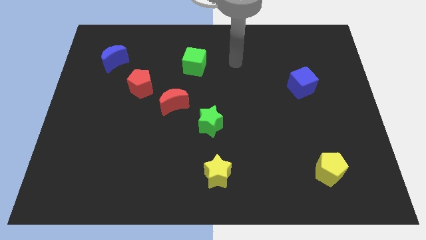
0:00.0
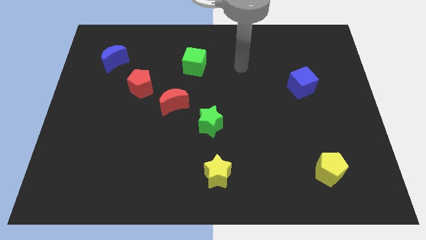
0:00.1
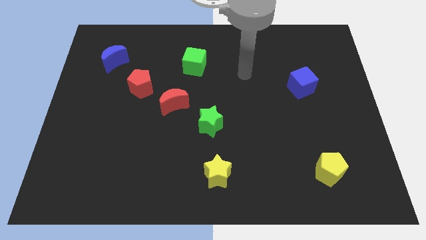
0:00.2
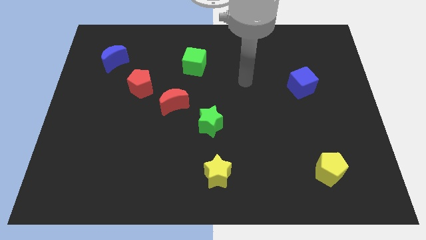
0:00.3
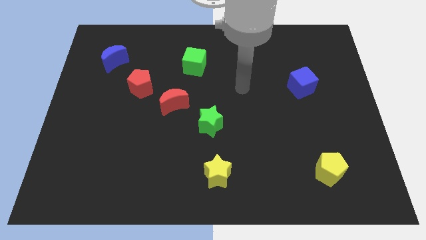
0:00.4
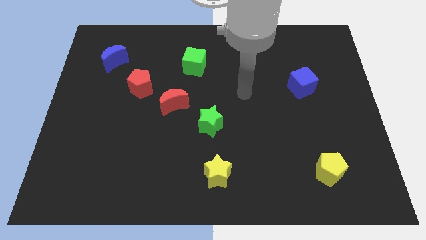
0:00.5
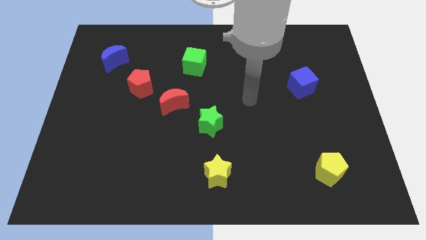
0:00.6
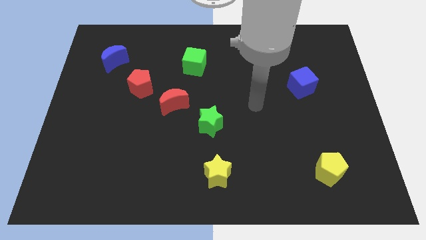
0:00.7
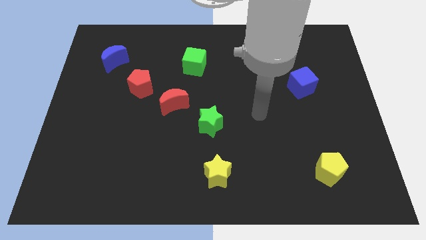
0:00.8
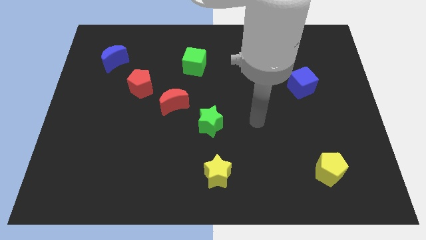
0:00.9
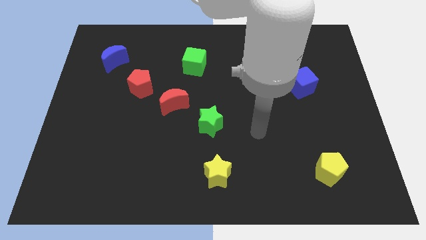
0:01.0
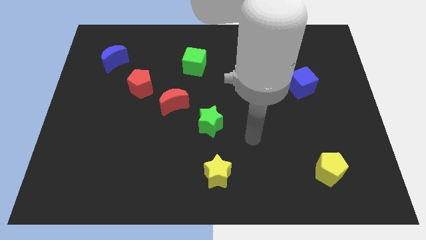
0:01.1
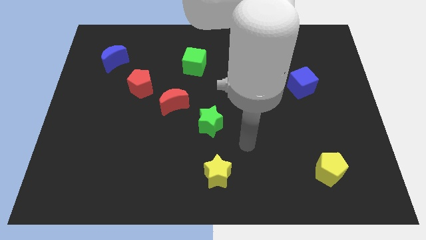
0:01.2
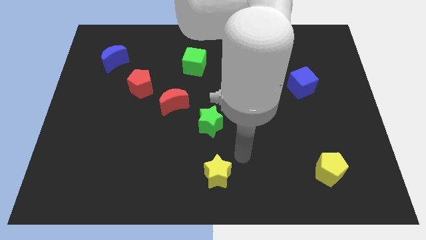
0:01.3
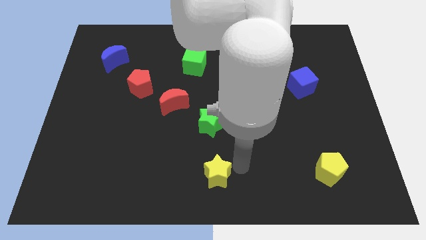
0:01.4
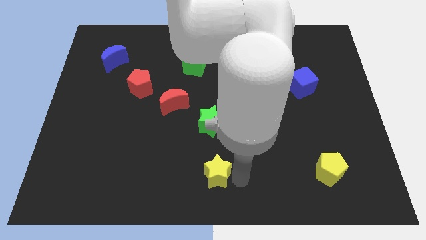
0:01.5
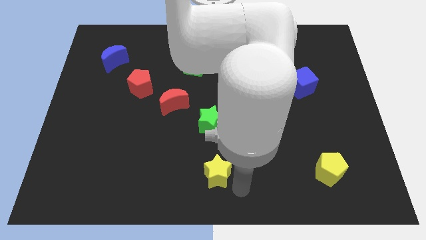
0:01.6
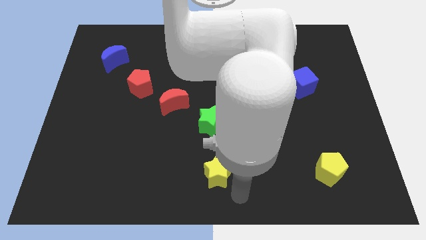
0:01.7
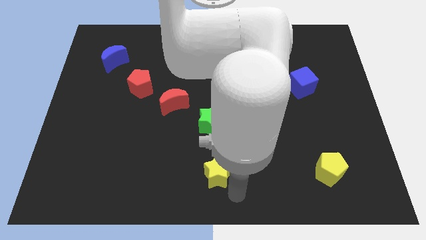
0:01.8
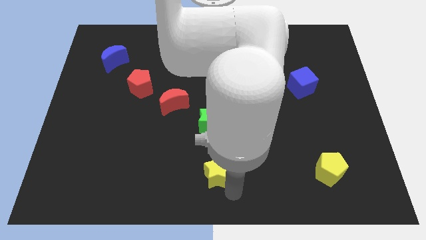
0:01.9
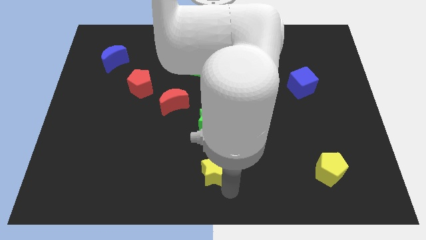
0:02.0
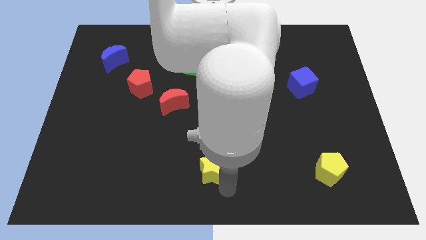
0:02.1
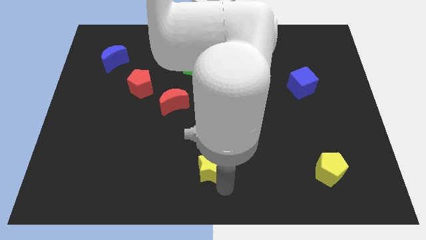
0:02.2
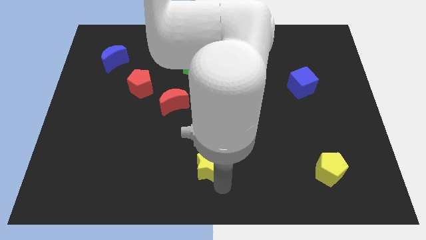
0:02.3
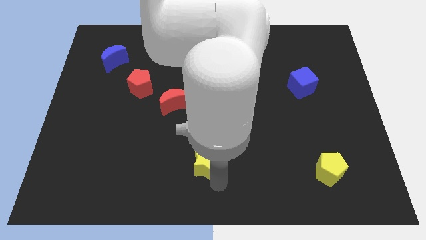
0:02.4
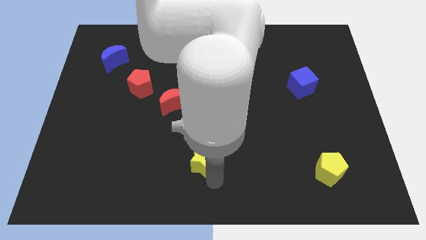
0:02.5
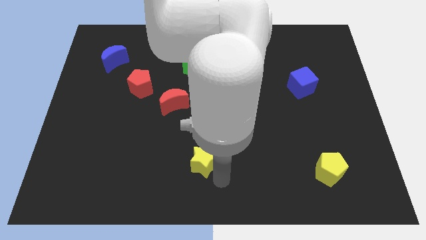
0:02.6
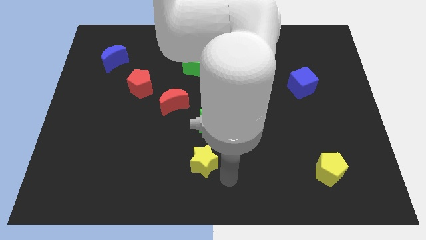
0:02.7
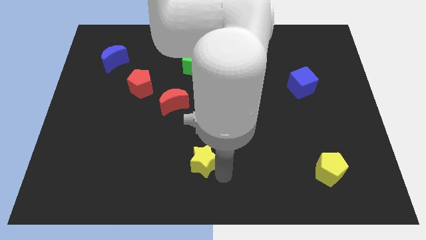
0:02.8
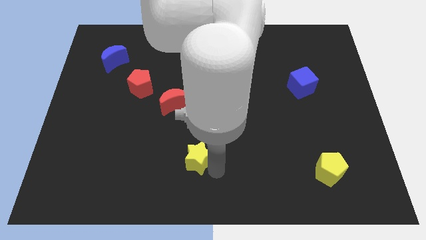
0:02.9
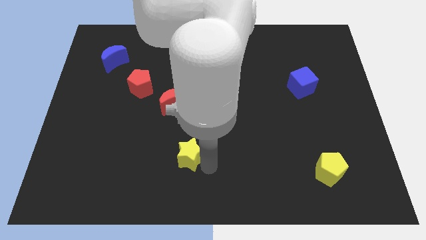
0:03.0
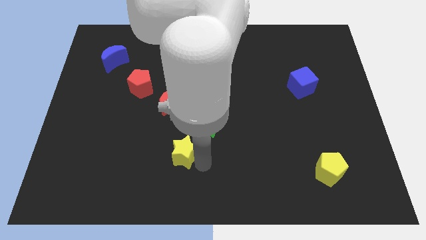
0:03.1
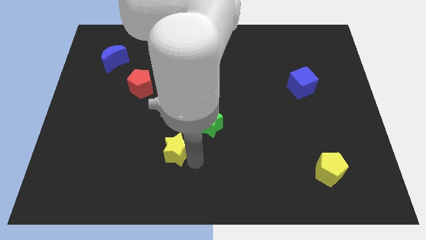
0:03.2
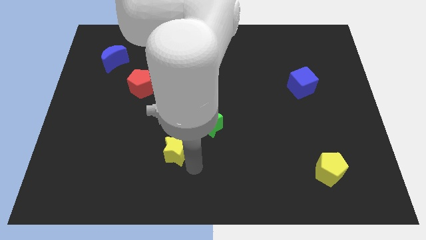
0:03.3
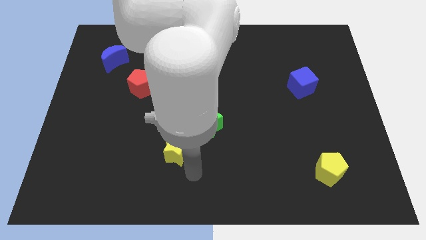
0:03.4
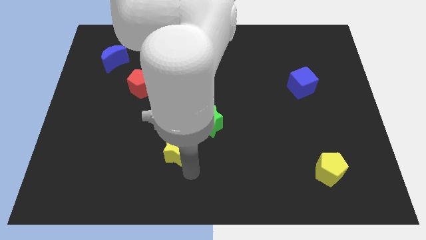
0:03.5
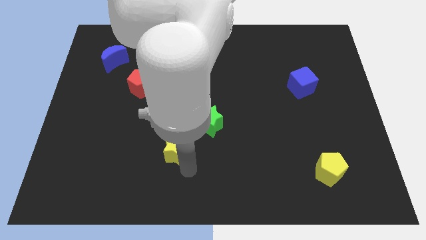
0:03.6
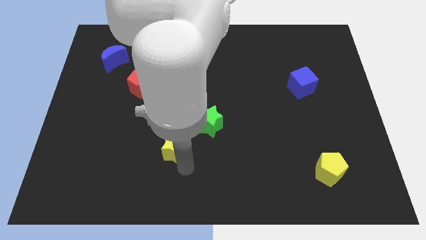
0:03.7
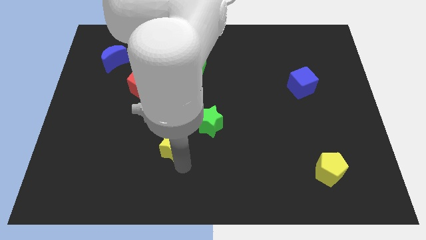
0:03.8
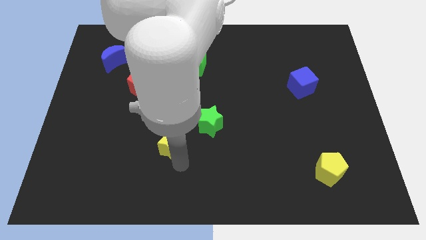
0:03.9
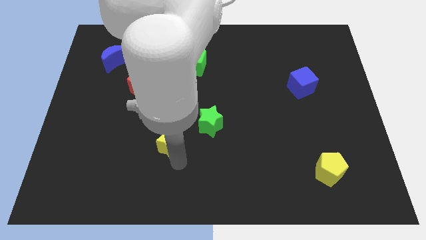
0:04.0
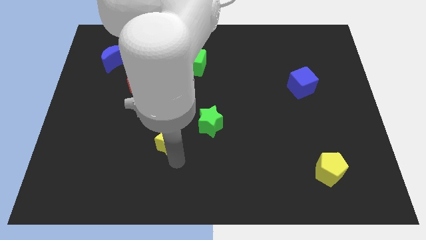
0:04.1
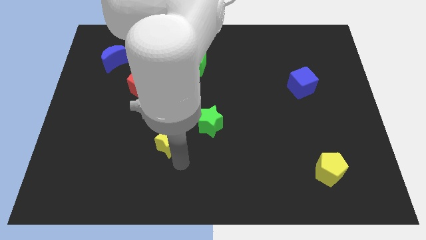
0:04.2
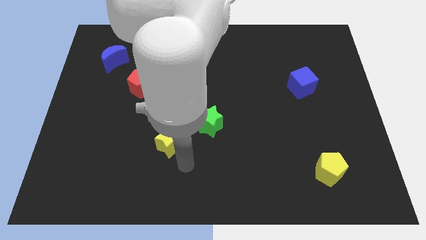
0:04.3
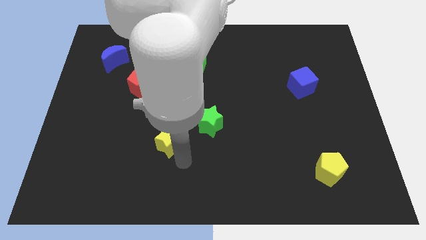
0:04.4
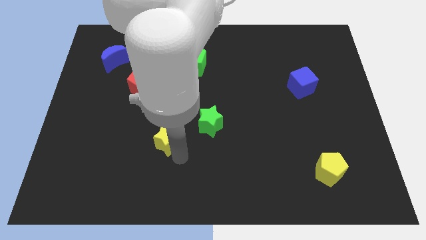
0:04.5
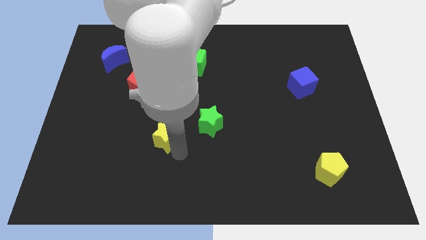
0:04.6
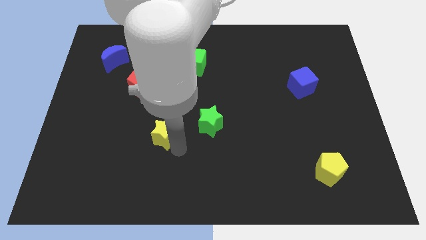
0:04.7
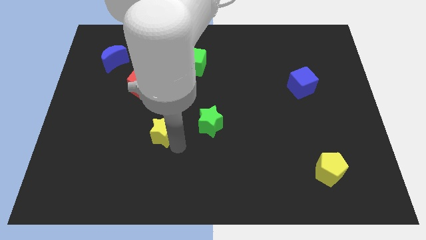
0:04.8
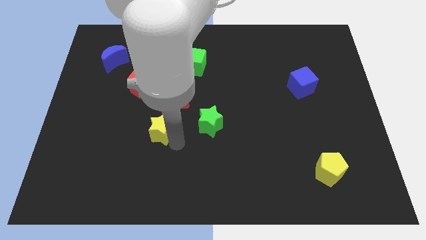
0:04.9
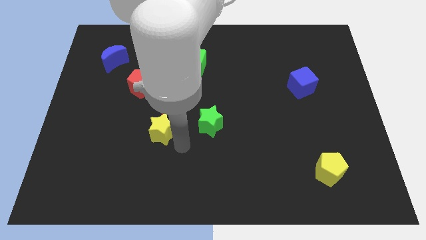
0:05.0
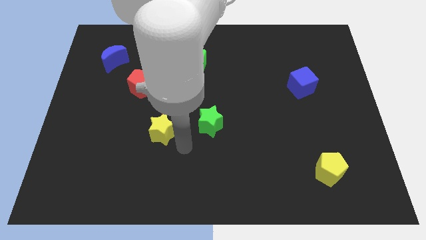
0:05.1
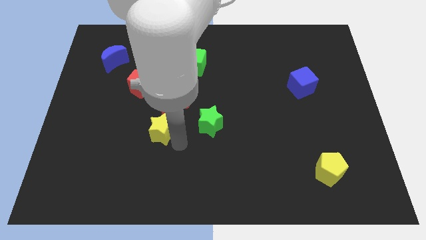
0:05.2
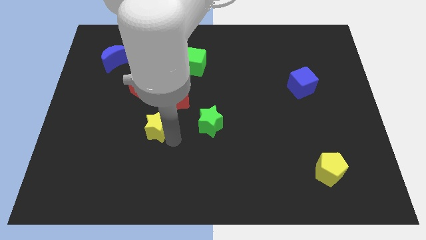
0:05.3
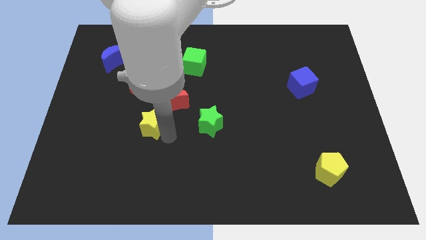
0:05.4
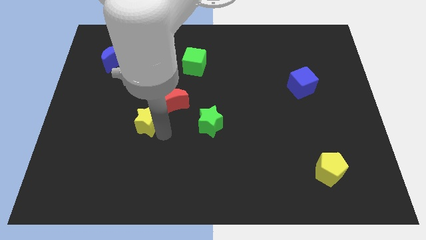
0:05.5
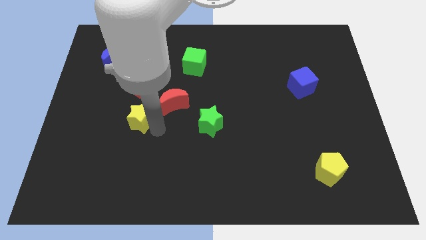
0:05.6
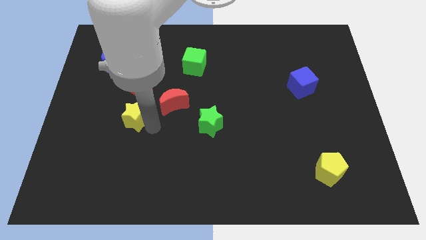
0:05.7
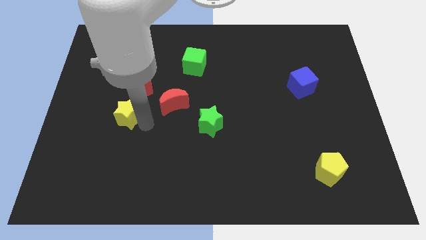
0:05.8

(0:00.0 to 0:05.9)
push the yellow star to the bottom left of the red pentagon

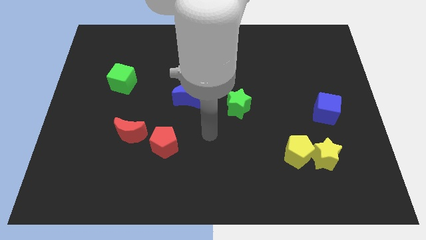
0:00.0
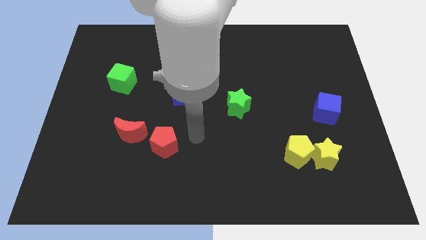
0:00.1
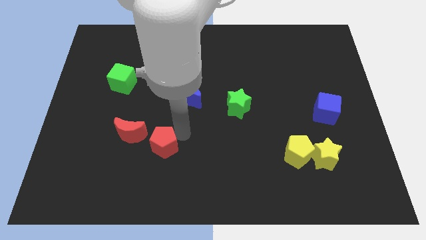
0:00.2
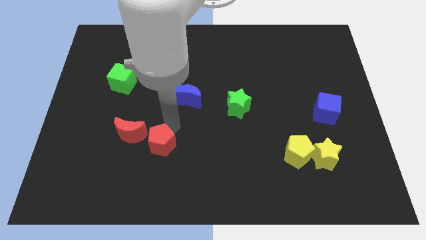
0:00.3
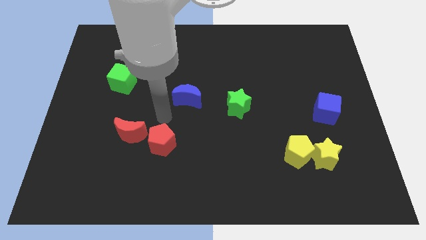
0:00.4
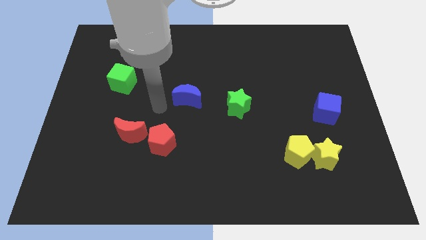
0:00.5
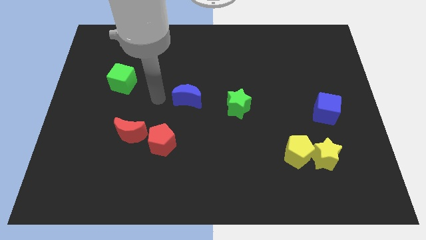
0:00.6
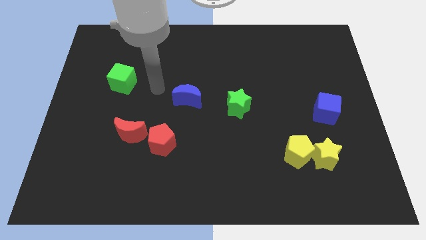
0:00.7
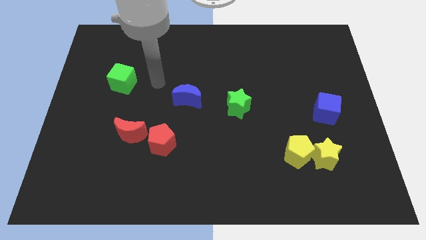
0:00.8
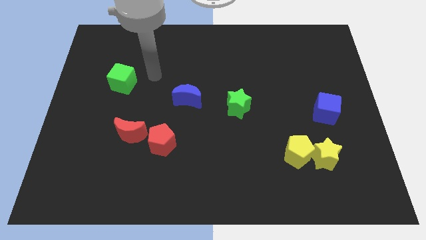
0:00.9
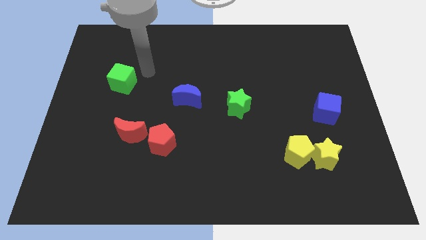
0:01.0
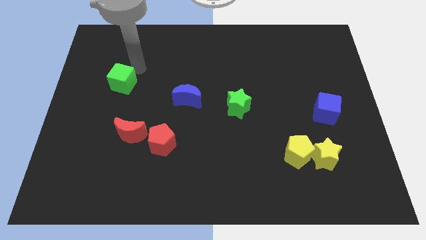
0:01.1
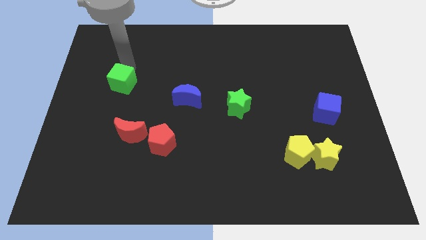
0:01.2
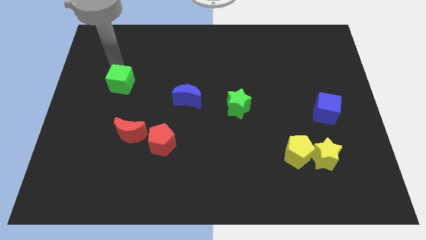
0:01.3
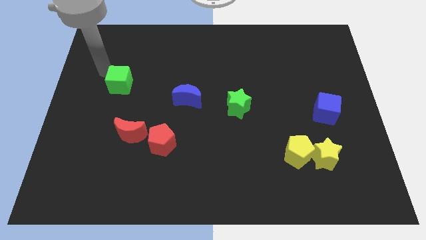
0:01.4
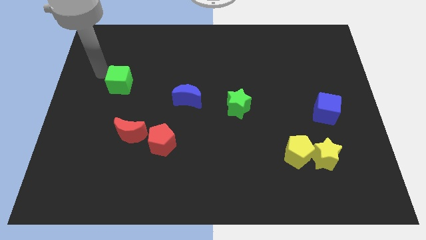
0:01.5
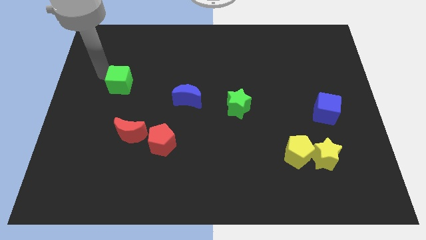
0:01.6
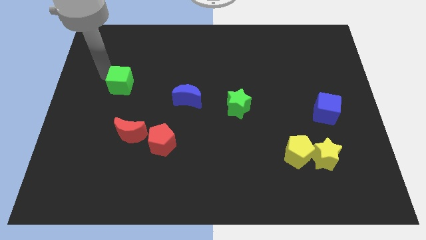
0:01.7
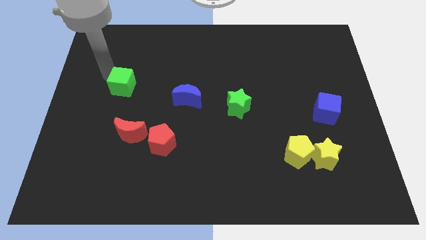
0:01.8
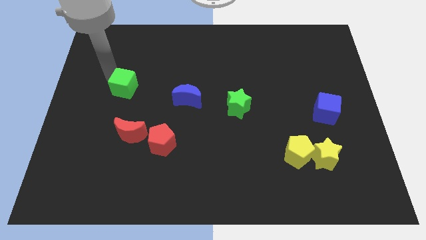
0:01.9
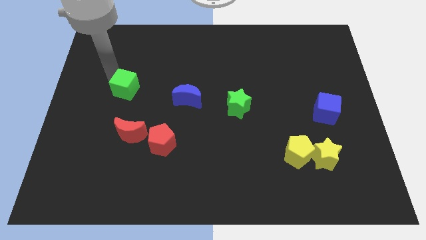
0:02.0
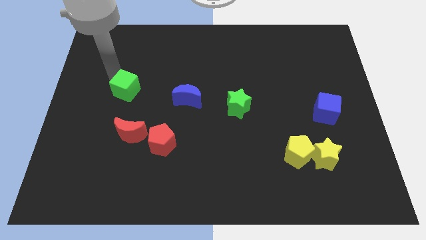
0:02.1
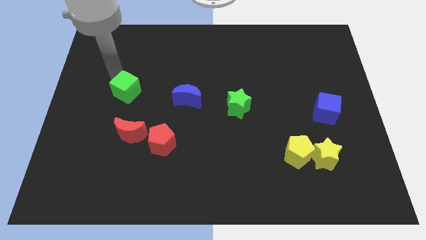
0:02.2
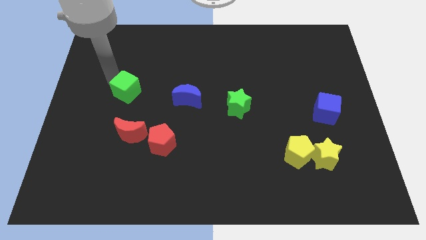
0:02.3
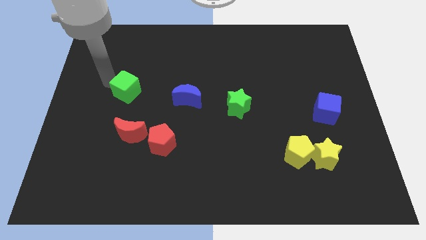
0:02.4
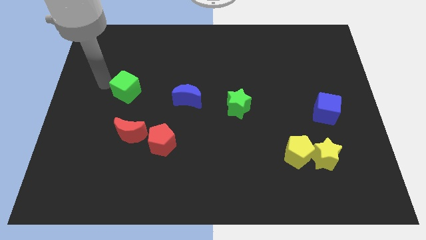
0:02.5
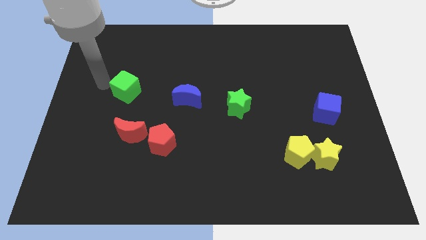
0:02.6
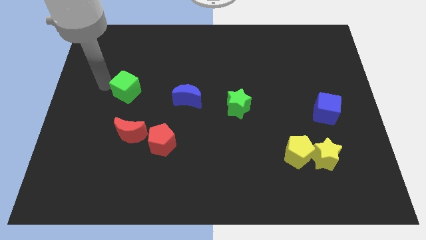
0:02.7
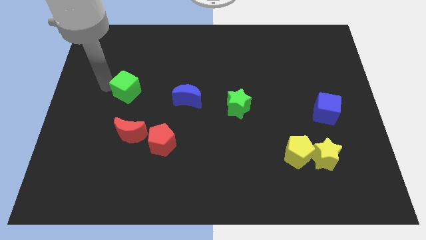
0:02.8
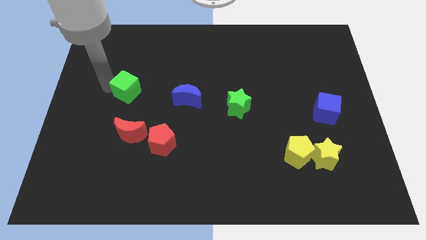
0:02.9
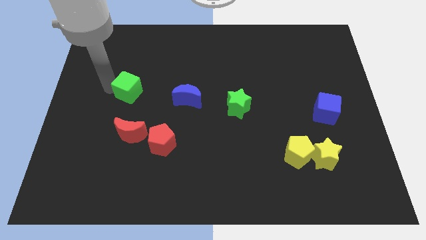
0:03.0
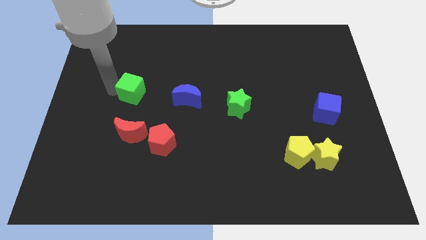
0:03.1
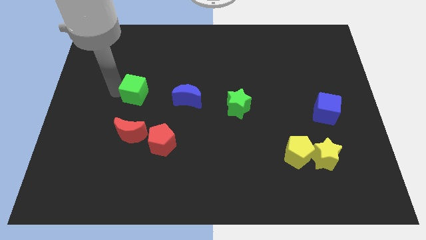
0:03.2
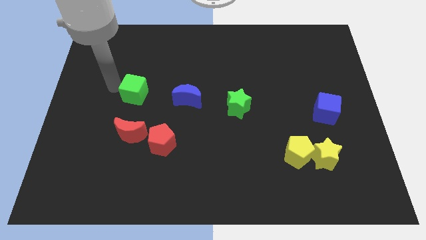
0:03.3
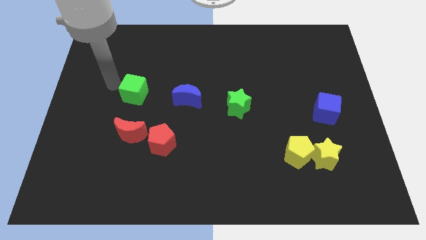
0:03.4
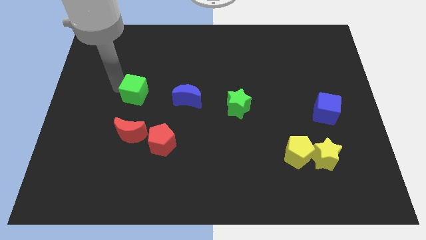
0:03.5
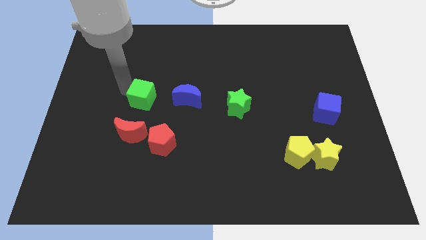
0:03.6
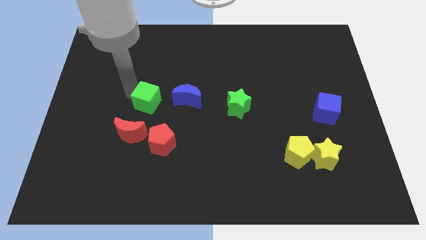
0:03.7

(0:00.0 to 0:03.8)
move the green cube to the top side of the red pentagon
